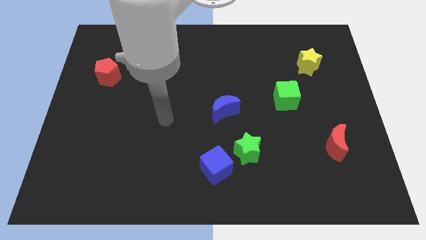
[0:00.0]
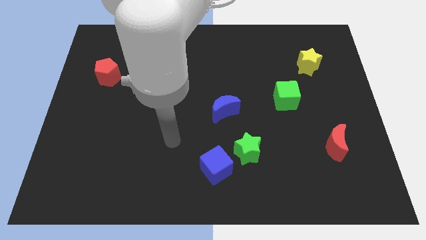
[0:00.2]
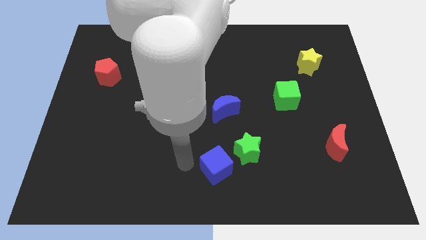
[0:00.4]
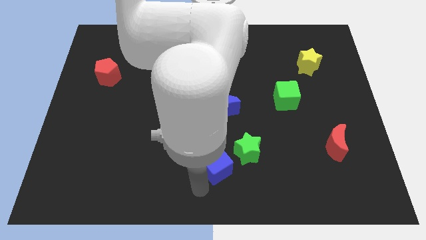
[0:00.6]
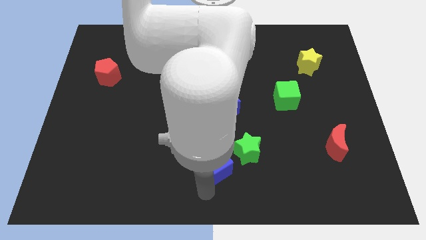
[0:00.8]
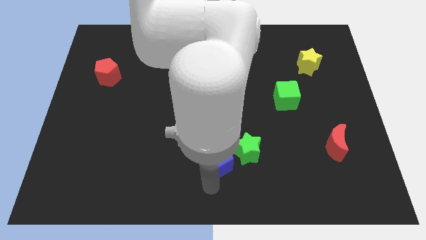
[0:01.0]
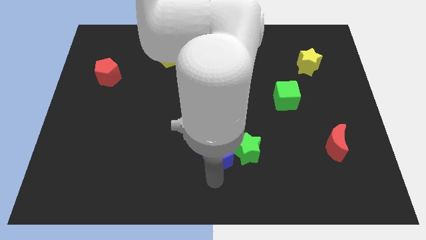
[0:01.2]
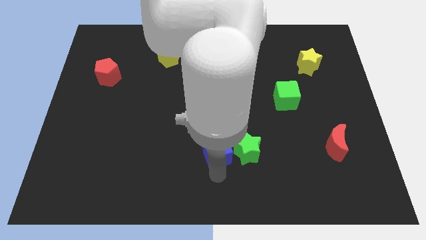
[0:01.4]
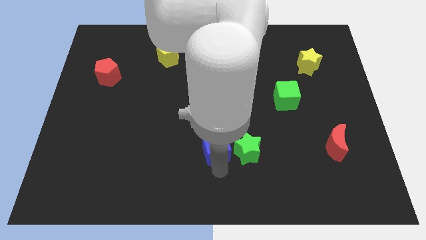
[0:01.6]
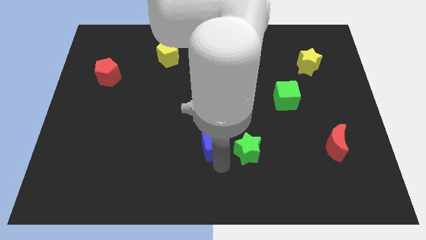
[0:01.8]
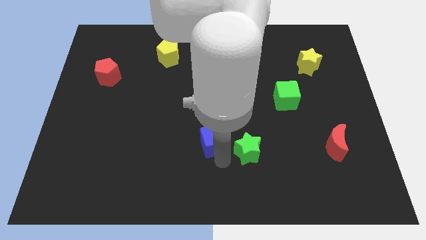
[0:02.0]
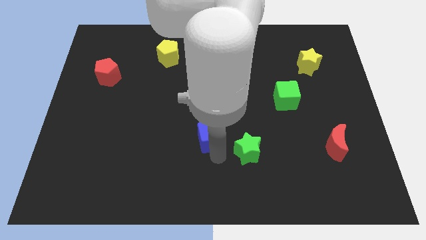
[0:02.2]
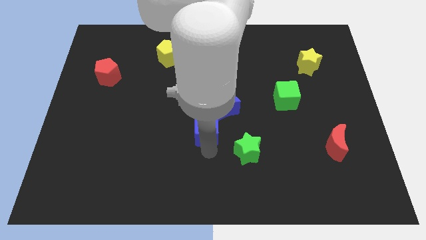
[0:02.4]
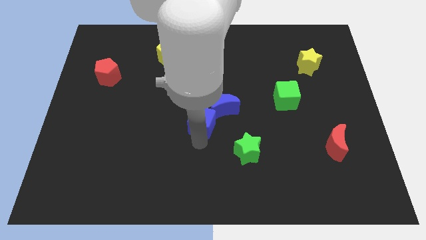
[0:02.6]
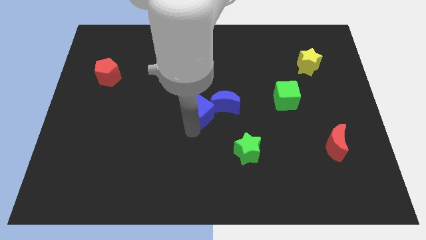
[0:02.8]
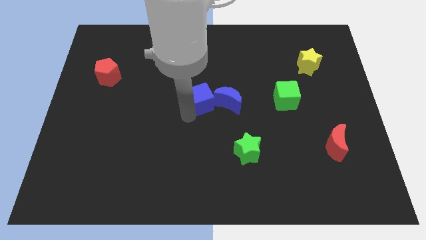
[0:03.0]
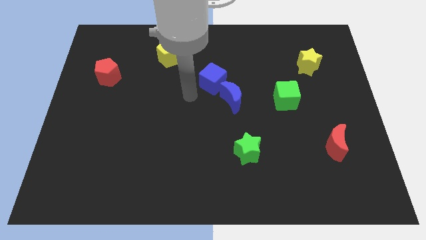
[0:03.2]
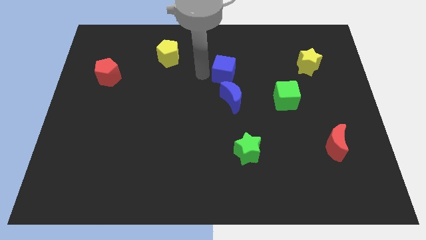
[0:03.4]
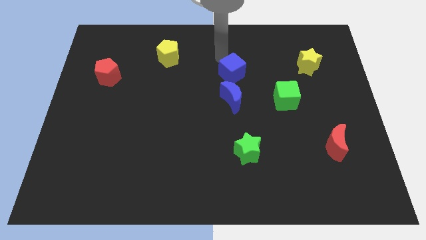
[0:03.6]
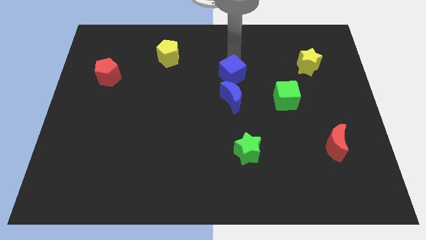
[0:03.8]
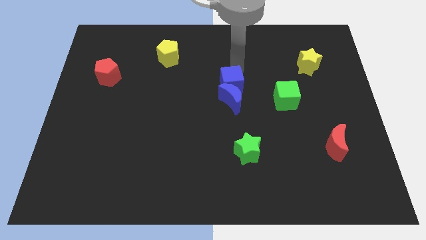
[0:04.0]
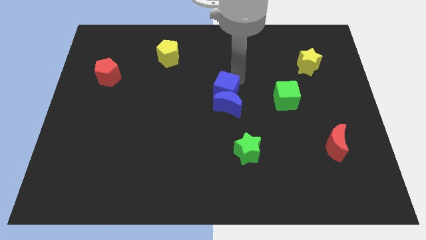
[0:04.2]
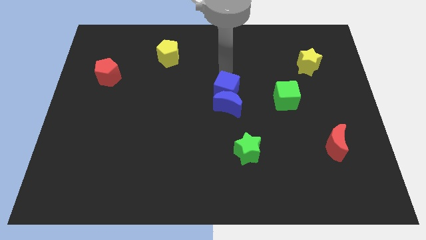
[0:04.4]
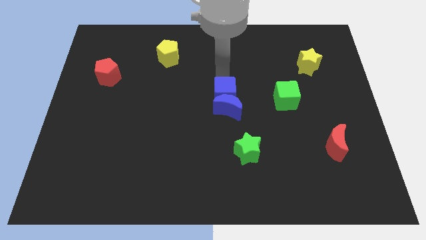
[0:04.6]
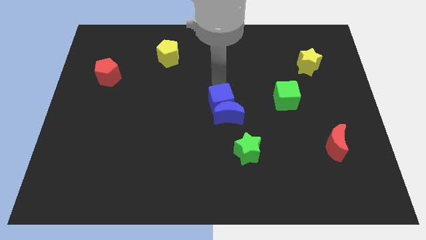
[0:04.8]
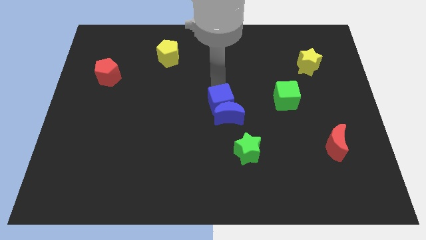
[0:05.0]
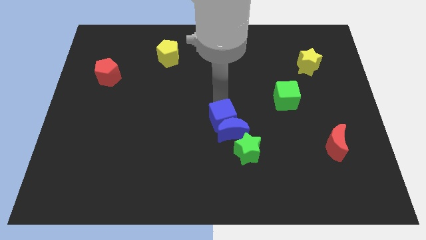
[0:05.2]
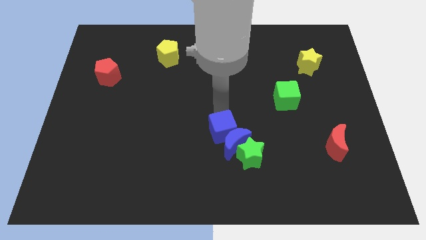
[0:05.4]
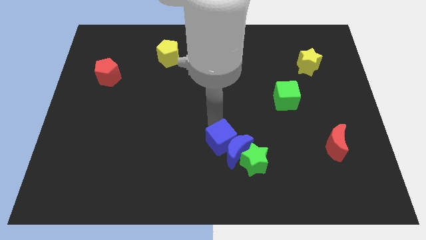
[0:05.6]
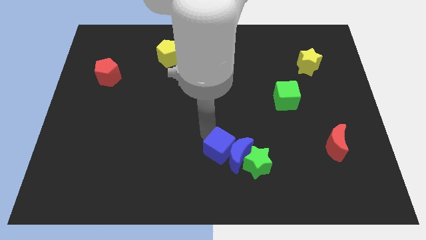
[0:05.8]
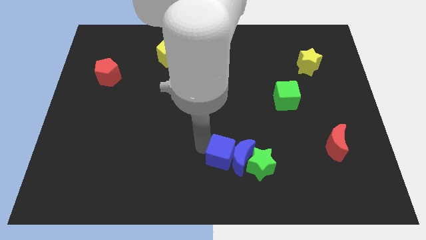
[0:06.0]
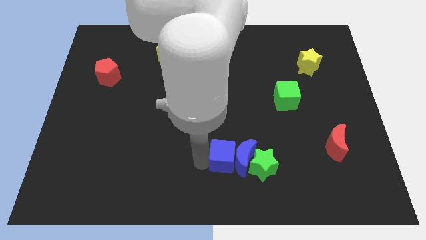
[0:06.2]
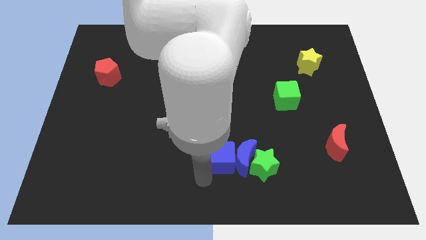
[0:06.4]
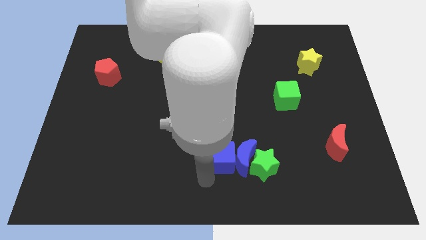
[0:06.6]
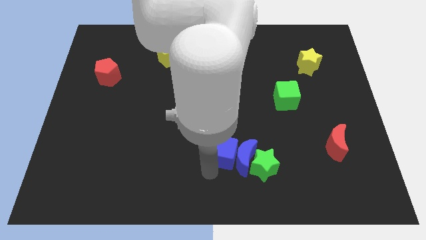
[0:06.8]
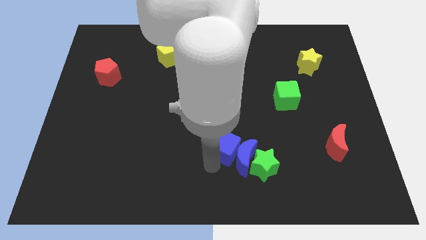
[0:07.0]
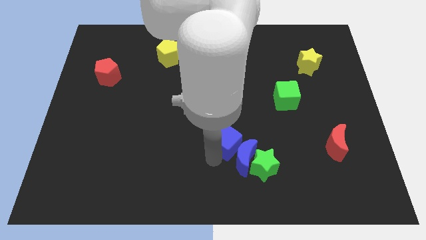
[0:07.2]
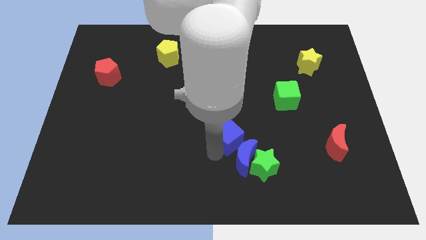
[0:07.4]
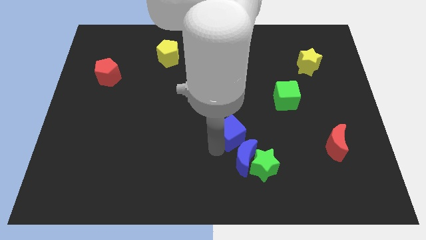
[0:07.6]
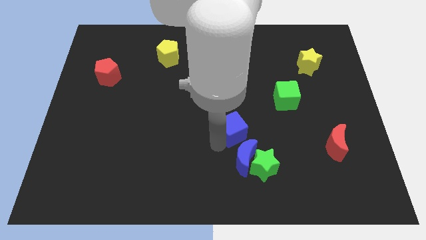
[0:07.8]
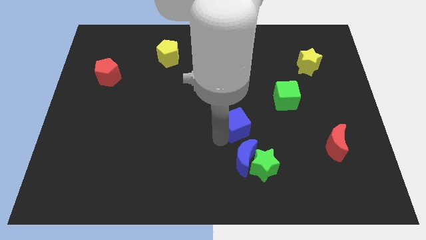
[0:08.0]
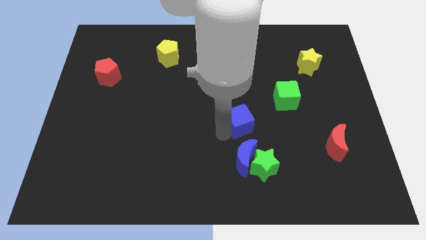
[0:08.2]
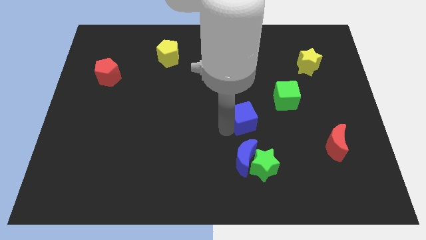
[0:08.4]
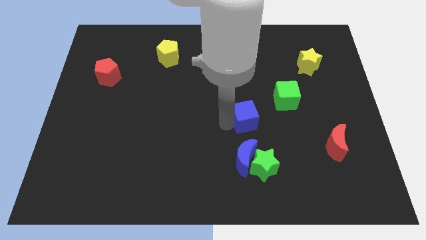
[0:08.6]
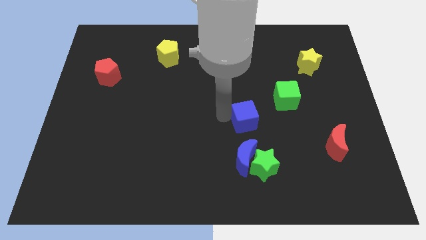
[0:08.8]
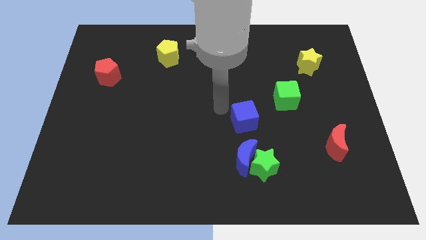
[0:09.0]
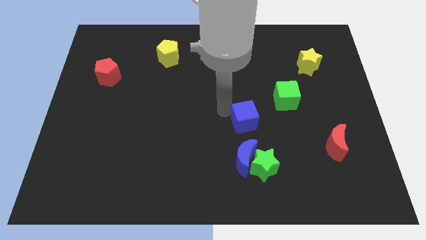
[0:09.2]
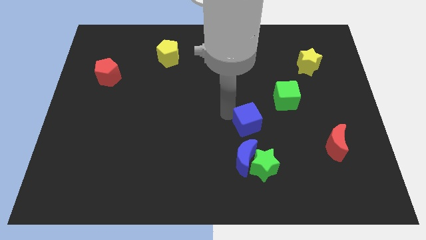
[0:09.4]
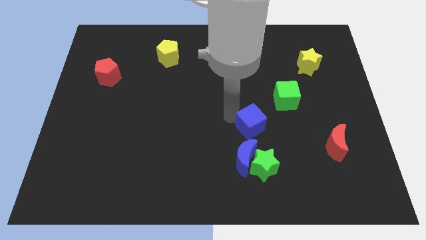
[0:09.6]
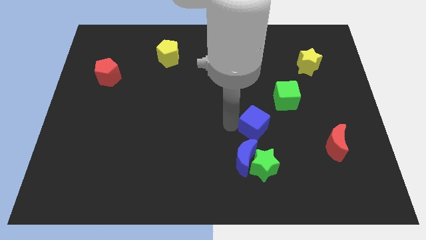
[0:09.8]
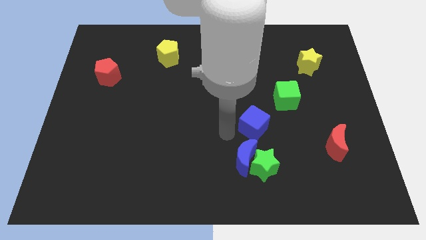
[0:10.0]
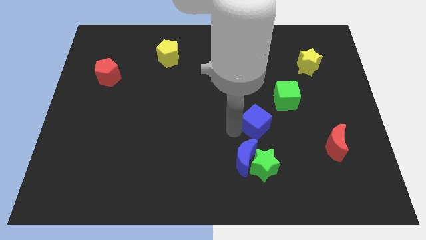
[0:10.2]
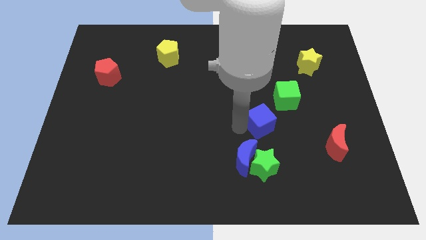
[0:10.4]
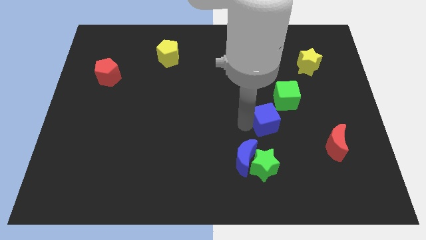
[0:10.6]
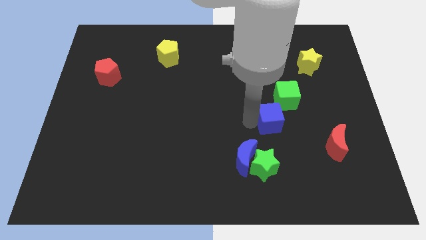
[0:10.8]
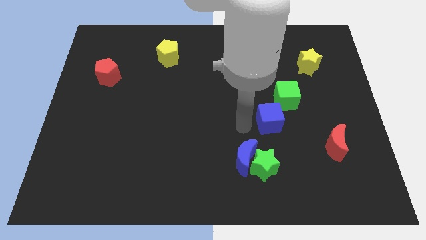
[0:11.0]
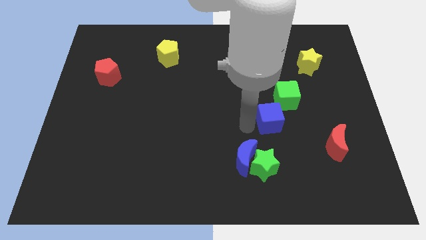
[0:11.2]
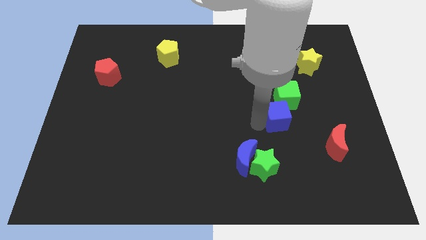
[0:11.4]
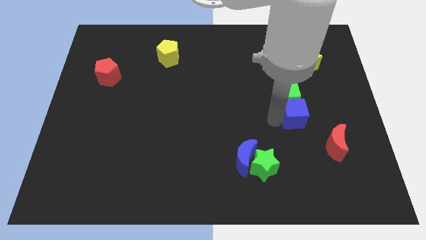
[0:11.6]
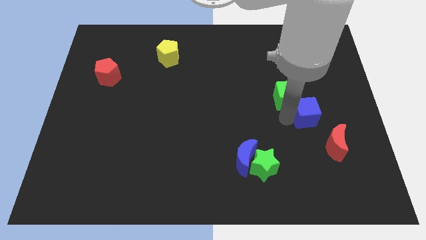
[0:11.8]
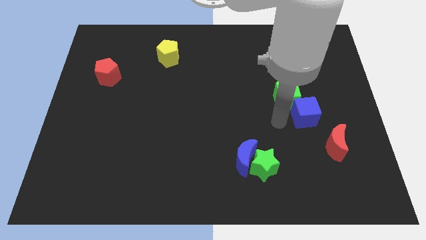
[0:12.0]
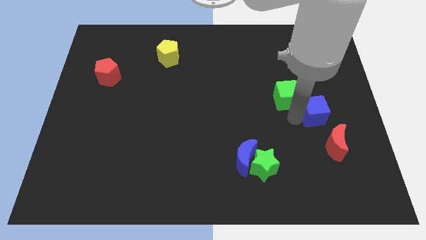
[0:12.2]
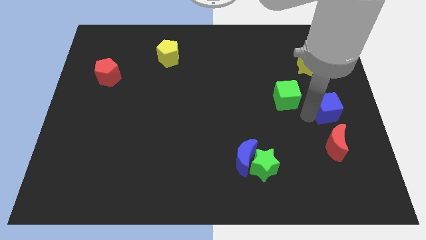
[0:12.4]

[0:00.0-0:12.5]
move the blue cube to the center right

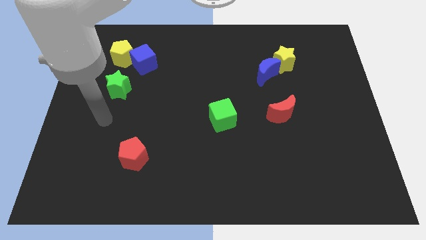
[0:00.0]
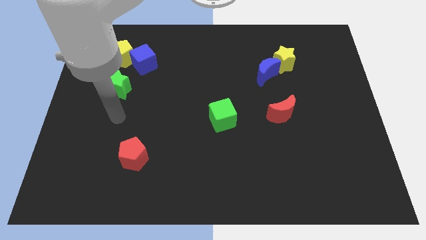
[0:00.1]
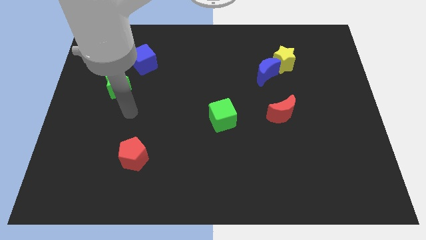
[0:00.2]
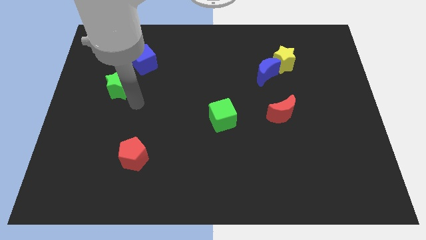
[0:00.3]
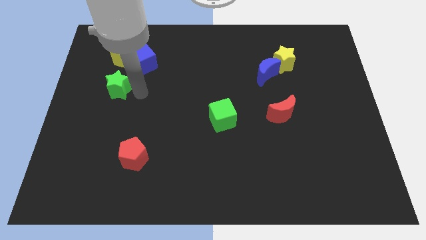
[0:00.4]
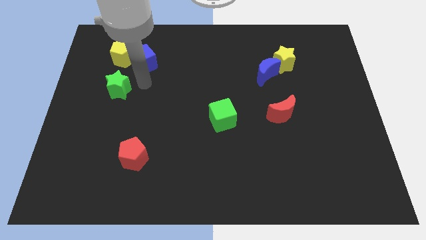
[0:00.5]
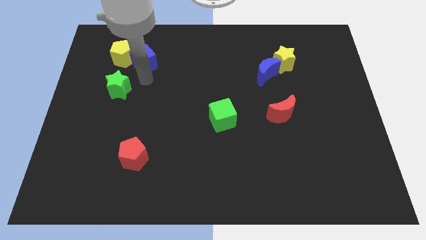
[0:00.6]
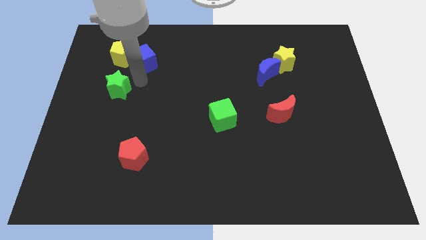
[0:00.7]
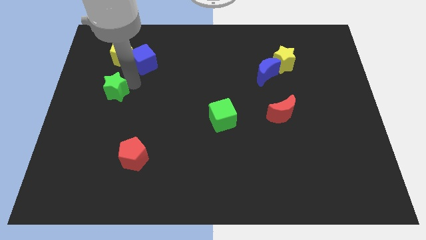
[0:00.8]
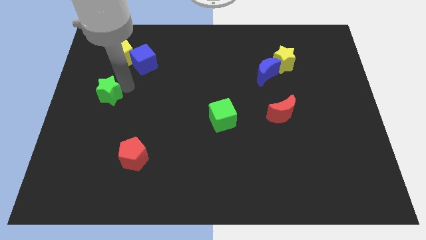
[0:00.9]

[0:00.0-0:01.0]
slide the green star to the left side
